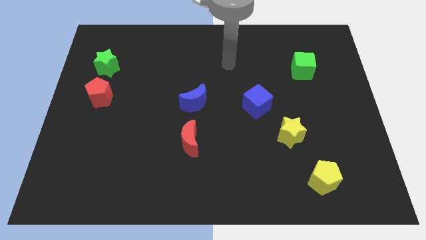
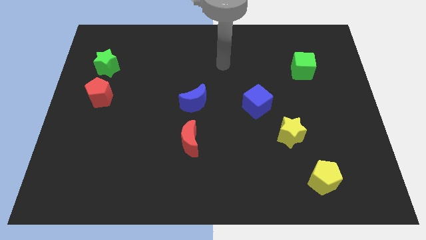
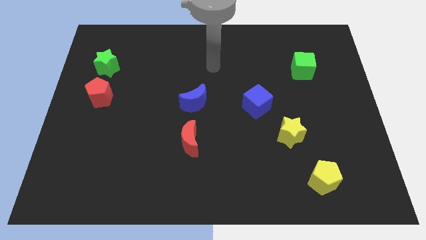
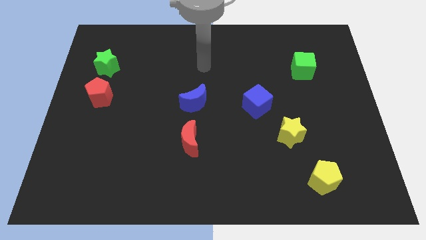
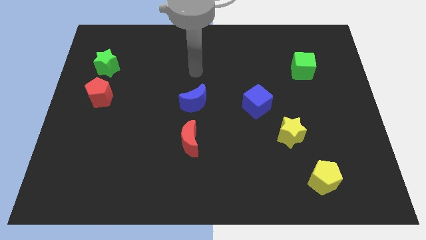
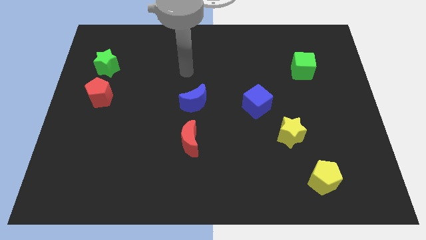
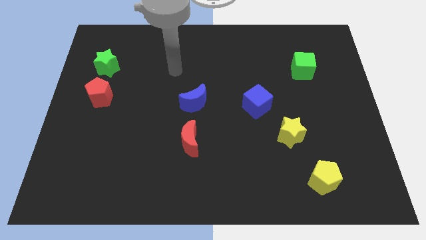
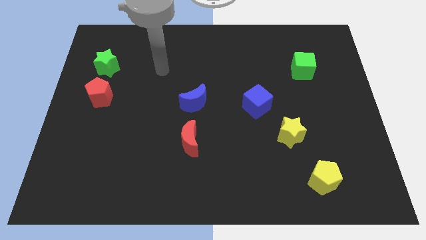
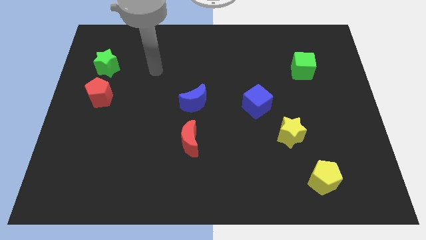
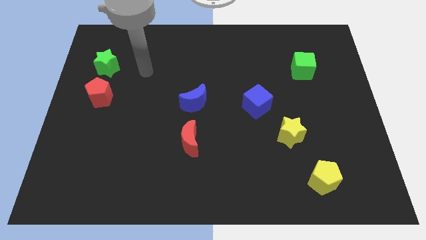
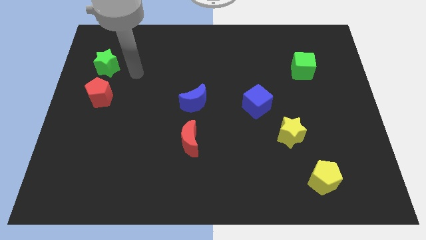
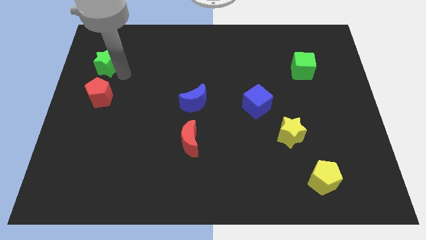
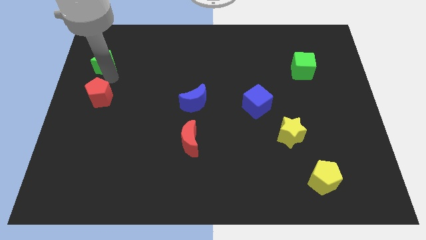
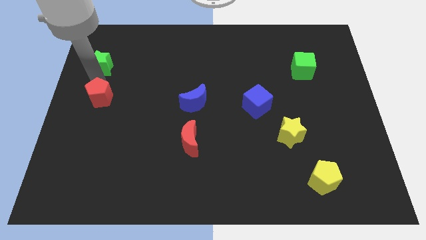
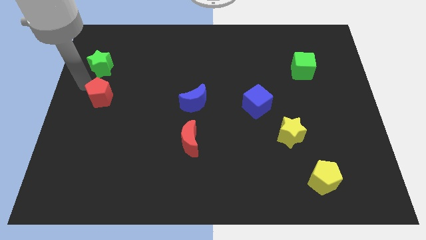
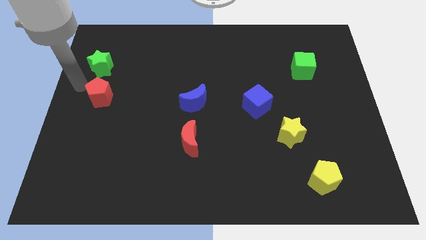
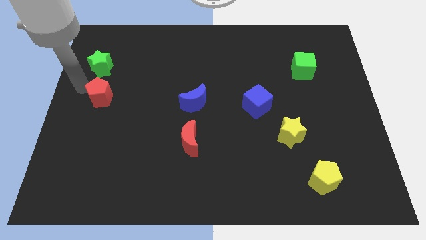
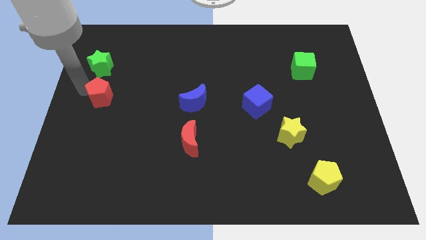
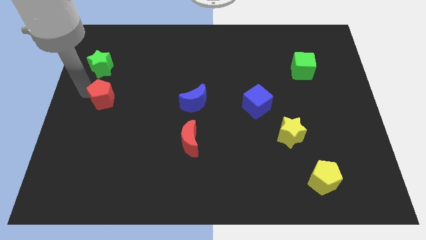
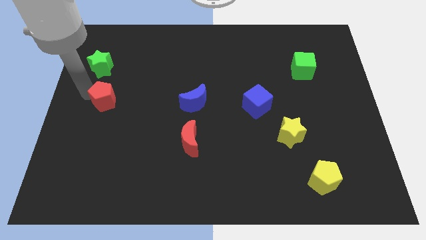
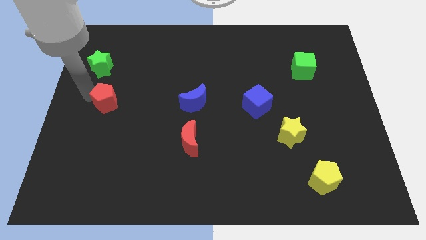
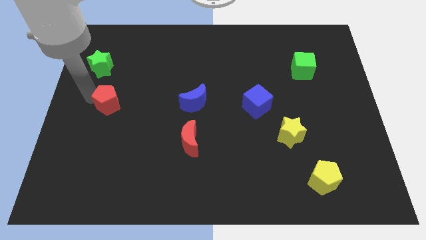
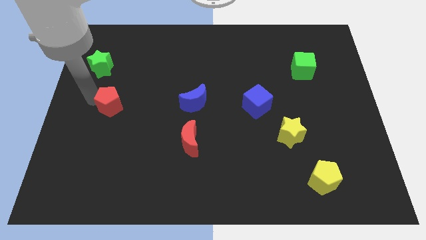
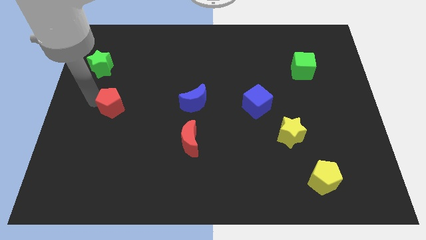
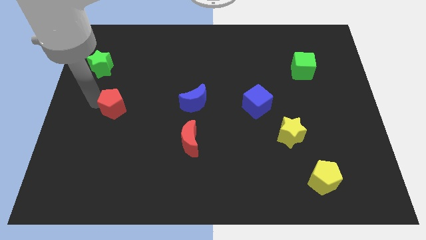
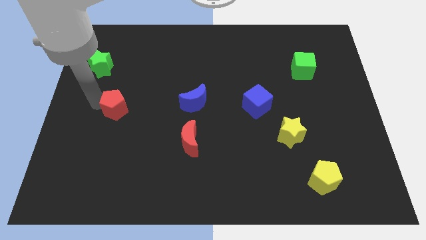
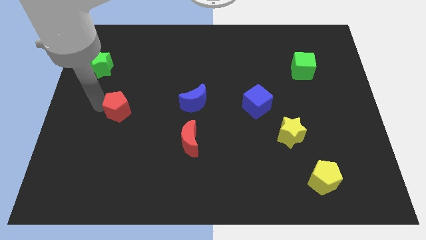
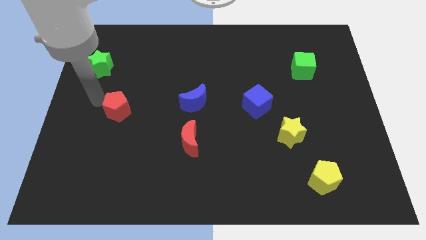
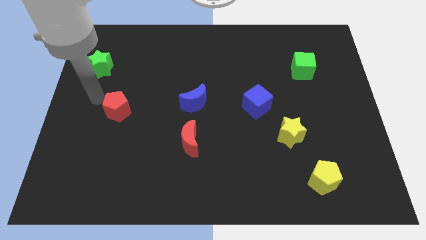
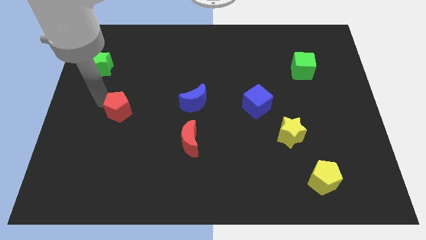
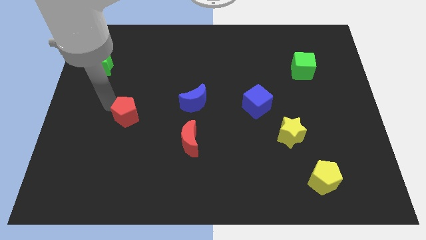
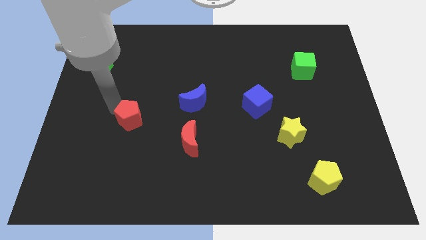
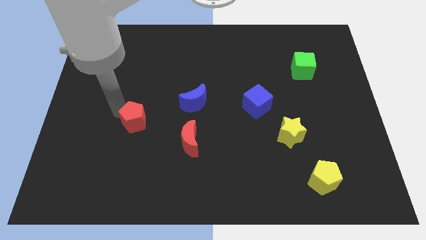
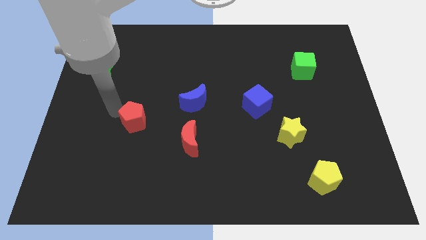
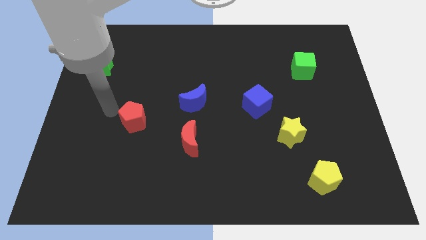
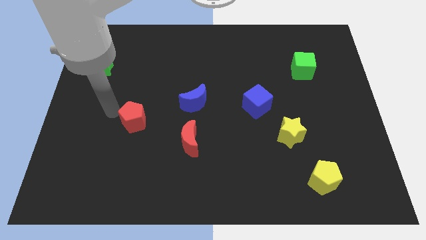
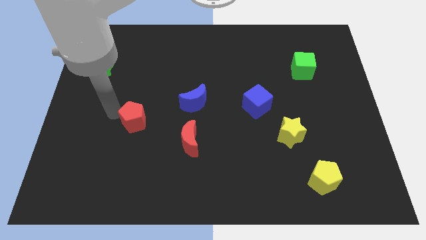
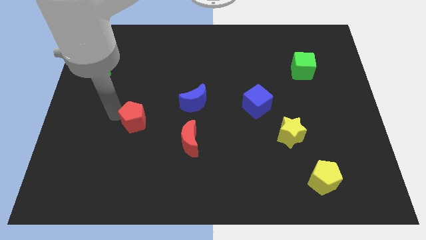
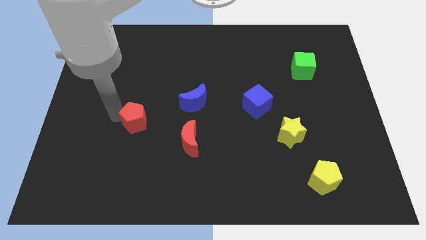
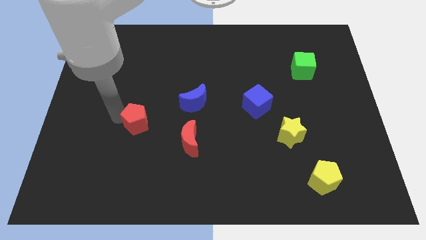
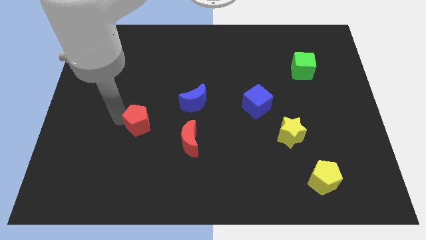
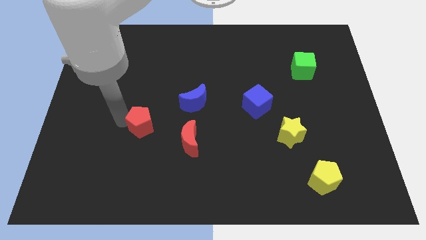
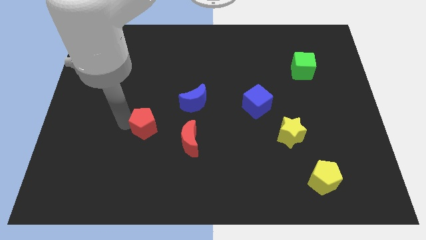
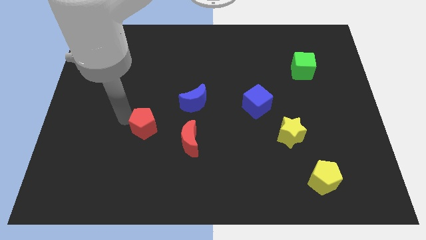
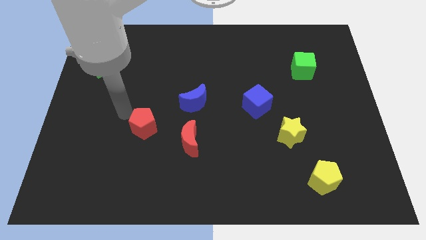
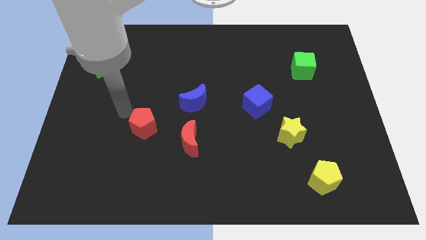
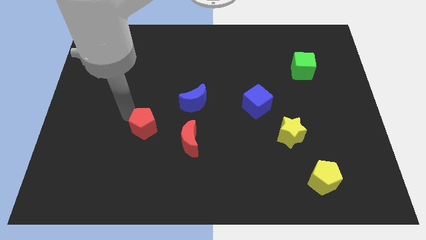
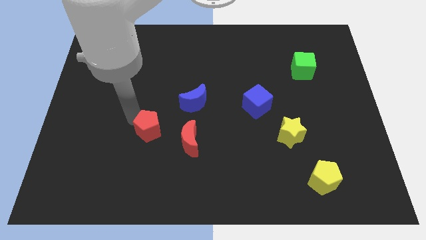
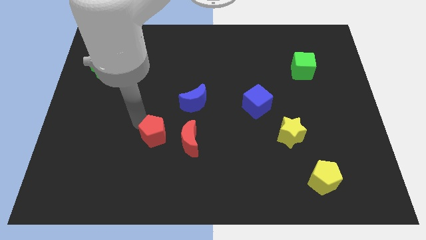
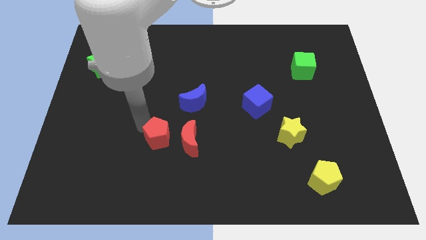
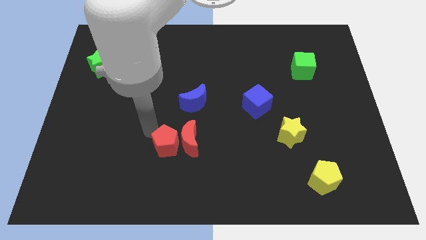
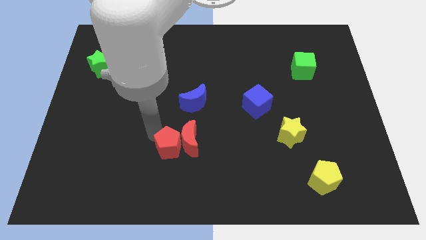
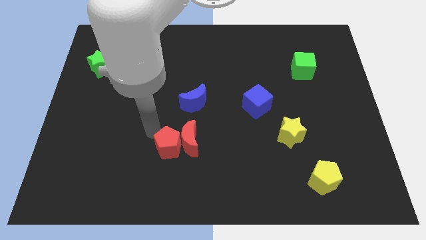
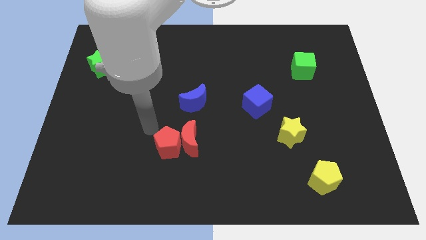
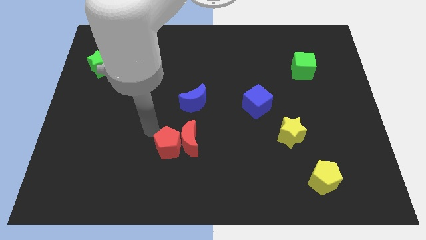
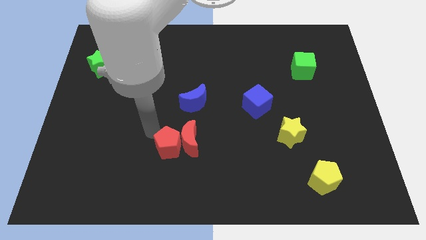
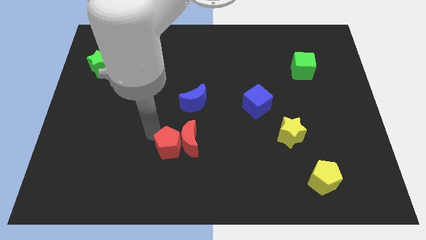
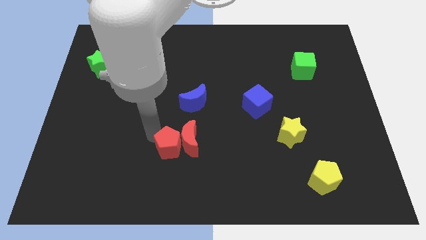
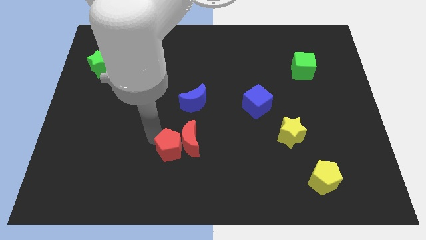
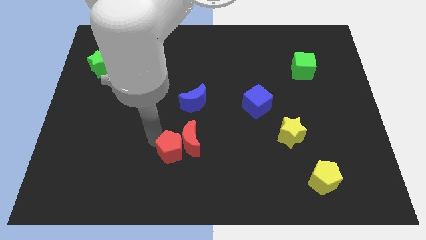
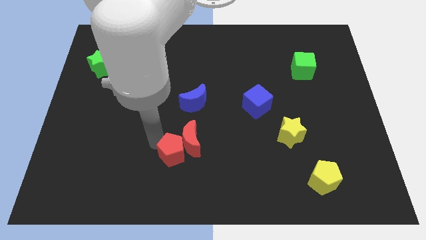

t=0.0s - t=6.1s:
slide the red pentagon to the bottom side of the blue moon

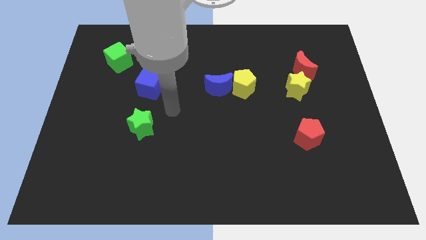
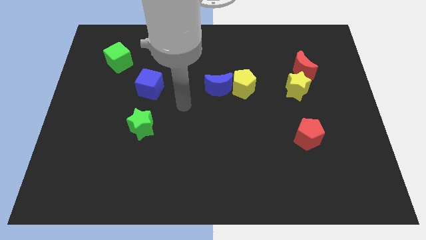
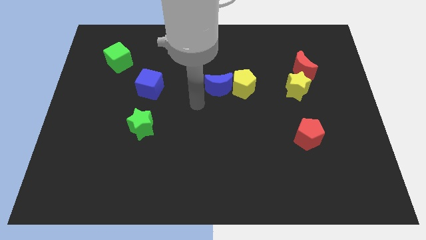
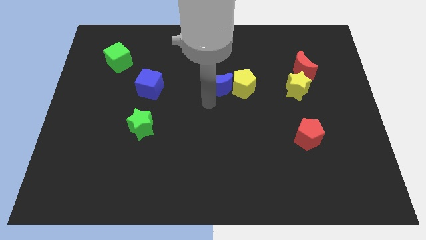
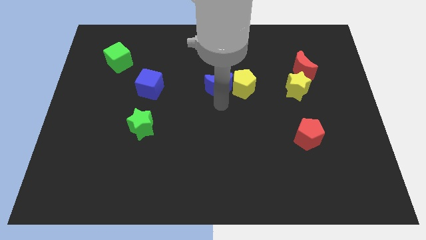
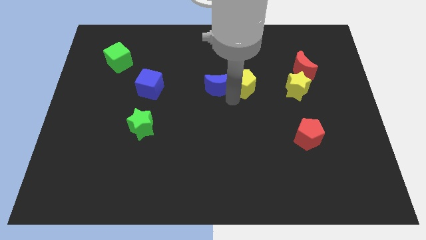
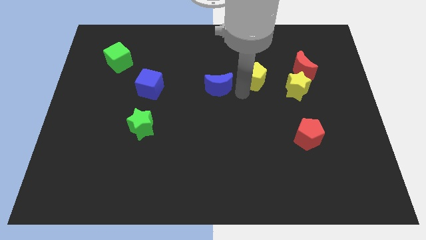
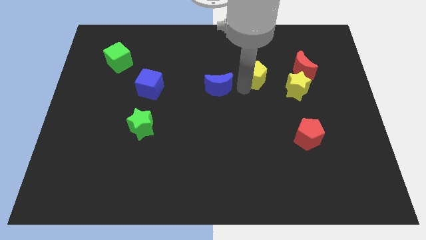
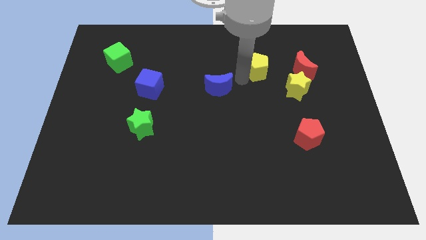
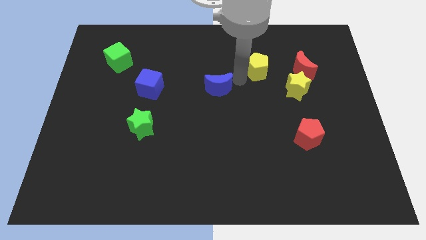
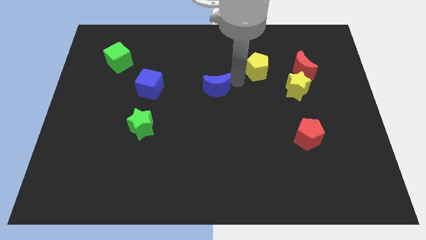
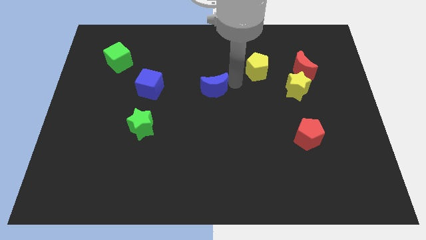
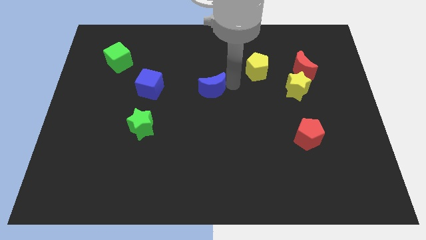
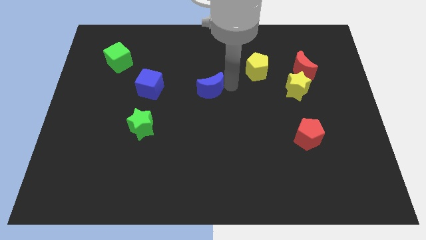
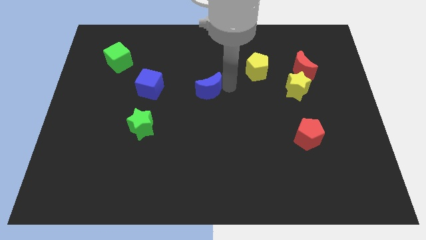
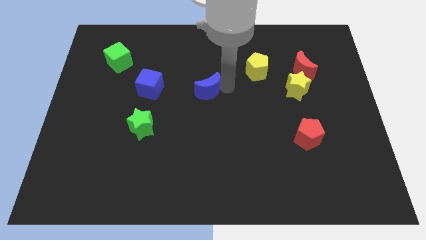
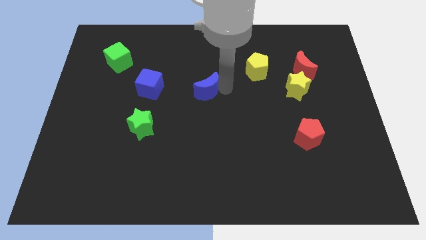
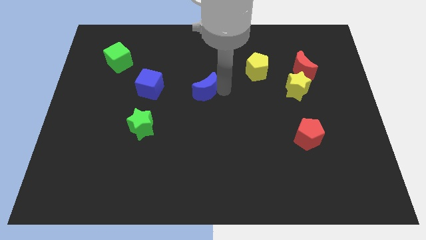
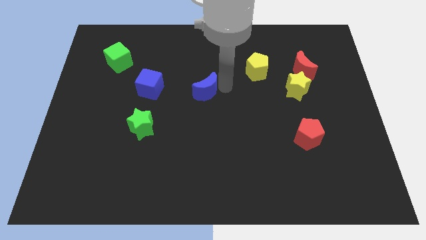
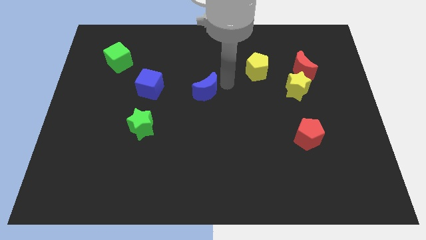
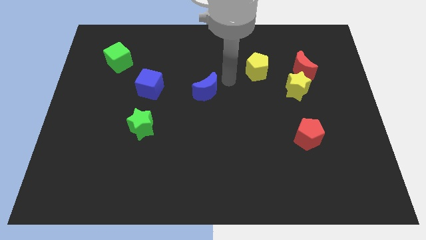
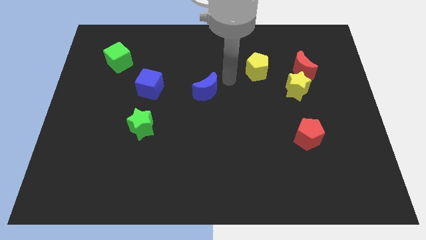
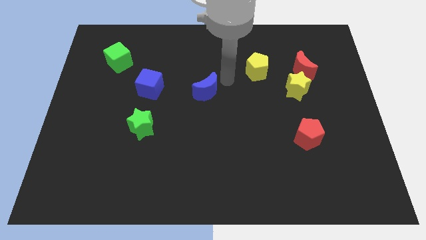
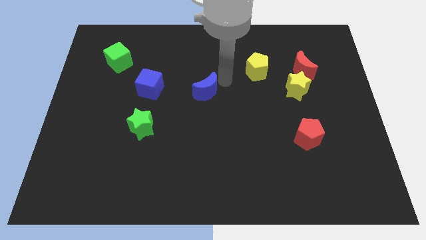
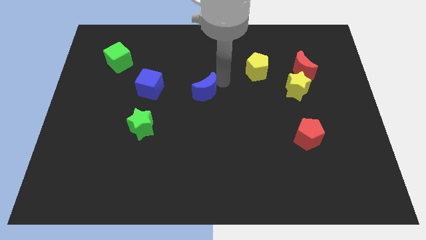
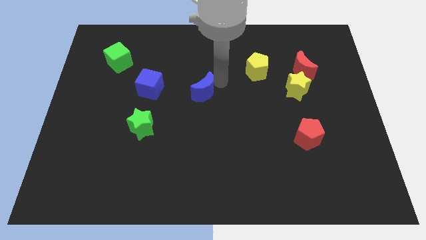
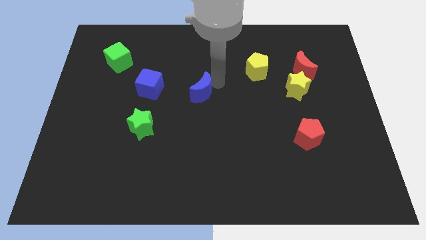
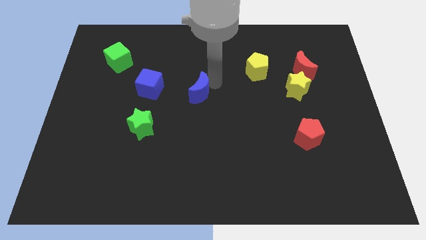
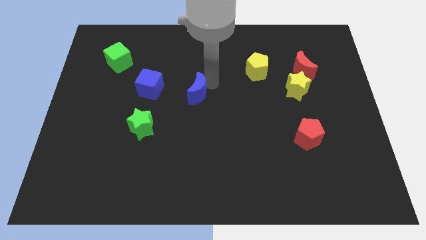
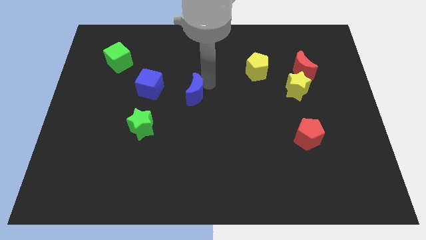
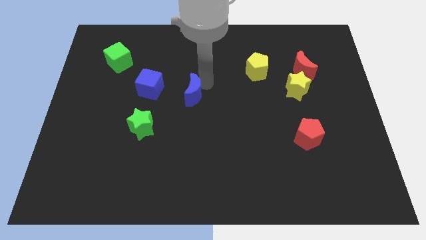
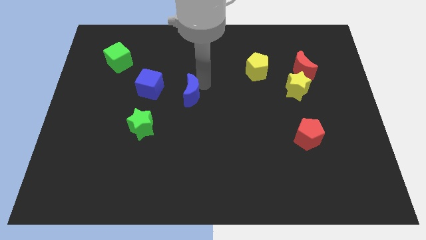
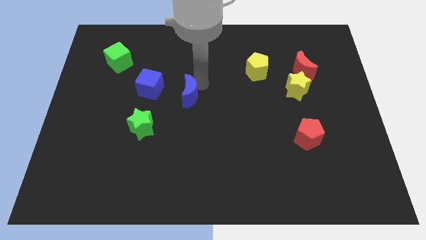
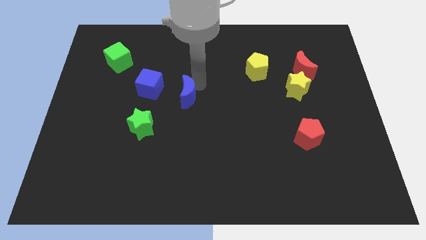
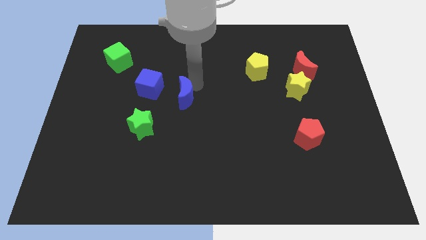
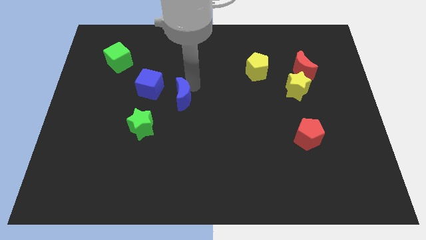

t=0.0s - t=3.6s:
put the blue moon to the top right side of the green star
